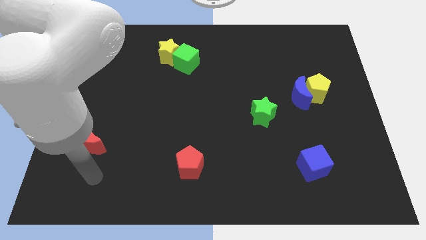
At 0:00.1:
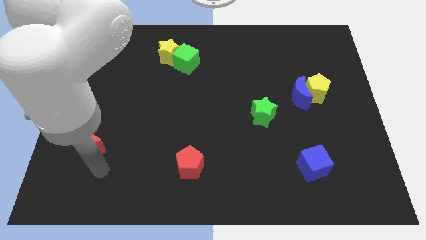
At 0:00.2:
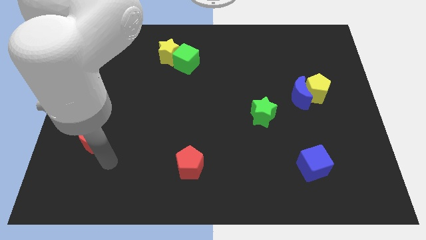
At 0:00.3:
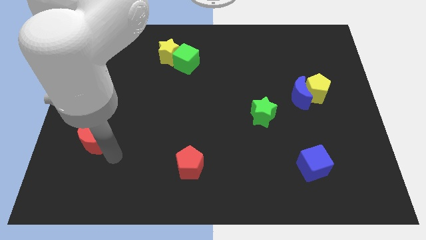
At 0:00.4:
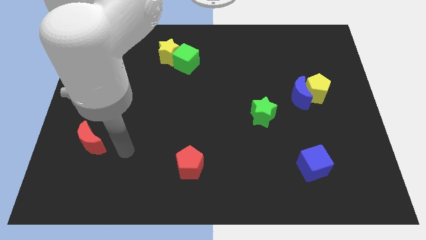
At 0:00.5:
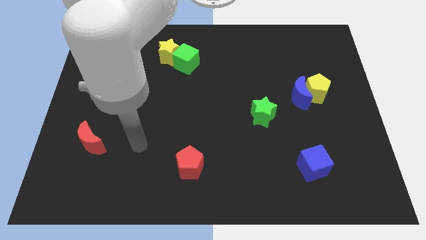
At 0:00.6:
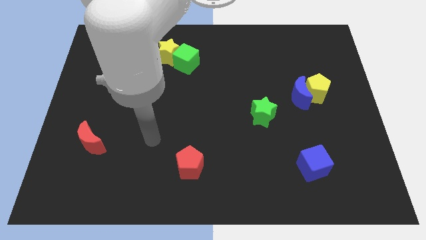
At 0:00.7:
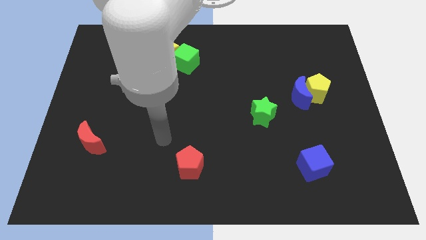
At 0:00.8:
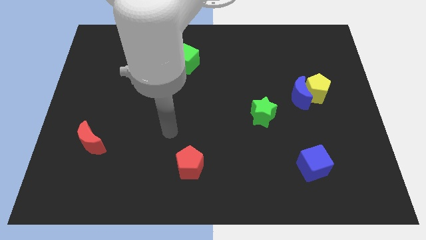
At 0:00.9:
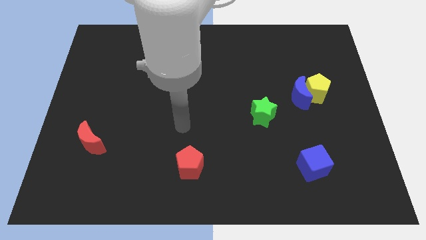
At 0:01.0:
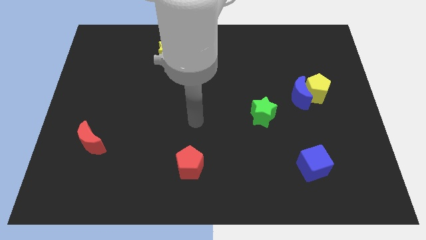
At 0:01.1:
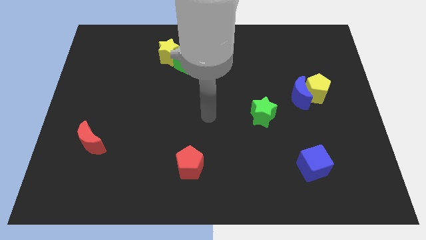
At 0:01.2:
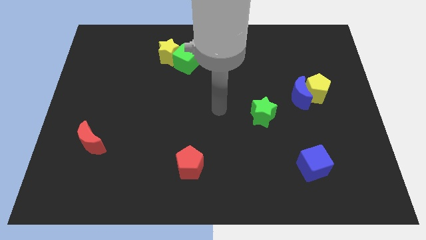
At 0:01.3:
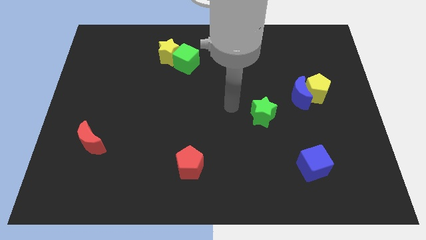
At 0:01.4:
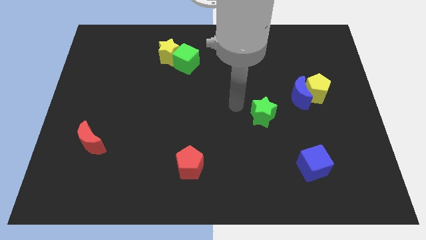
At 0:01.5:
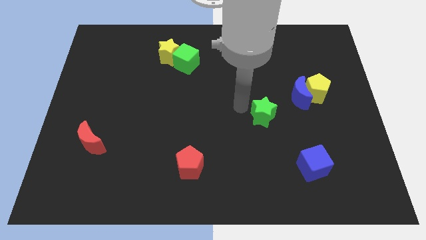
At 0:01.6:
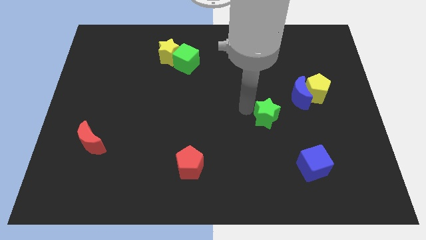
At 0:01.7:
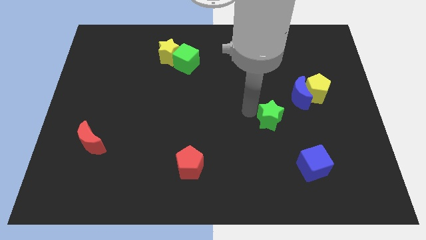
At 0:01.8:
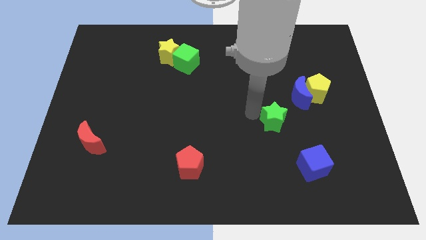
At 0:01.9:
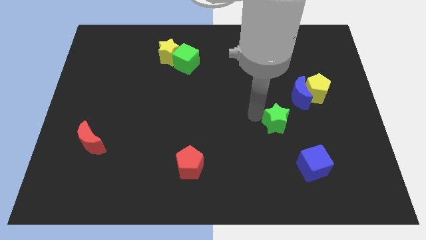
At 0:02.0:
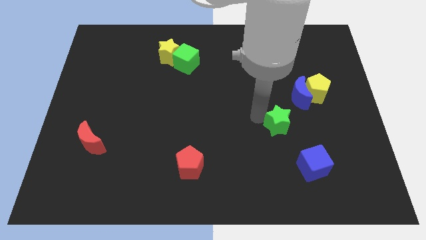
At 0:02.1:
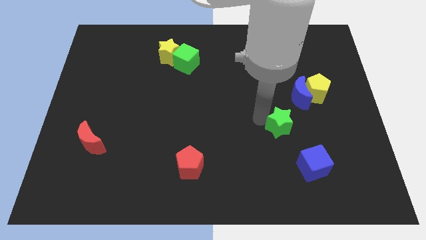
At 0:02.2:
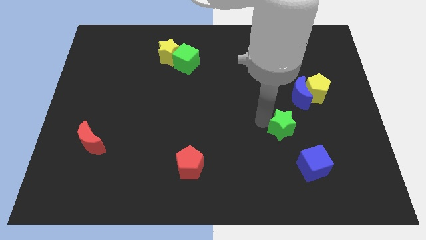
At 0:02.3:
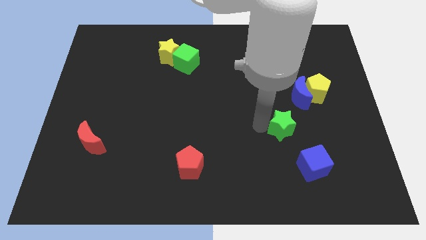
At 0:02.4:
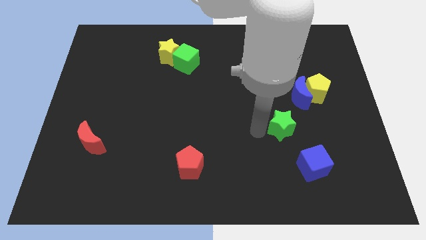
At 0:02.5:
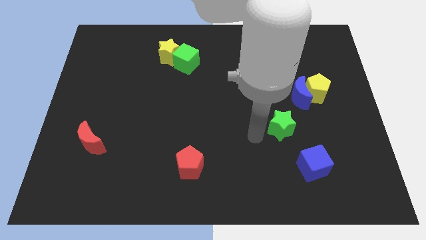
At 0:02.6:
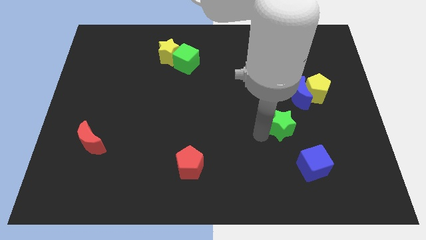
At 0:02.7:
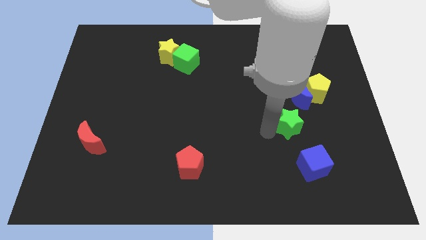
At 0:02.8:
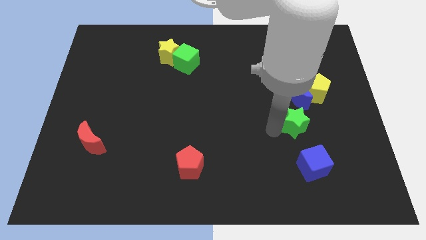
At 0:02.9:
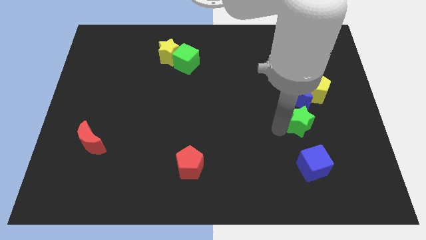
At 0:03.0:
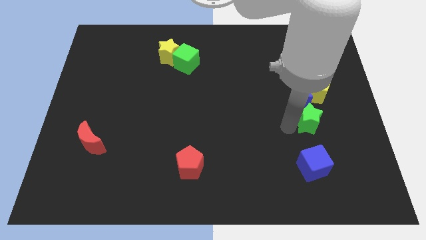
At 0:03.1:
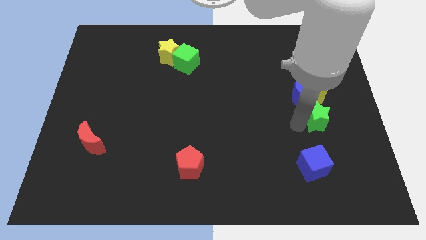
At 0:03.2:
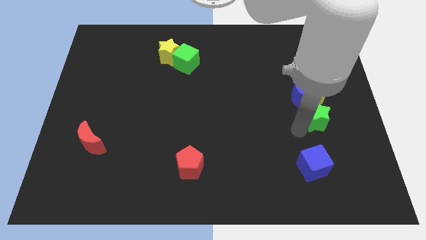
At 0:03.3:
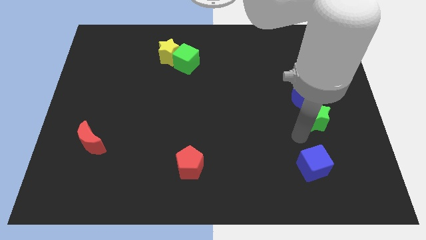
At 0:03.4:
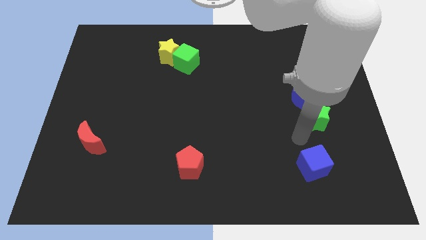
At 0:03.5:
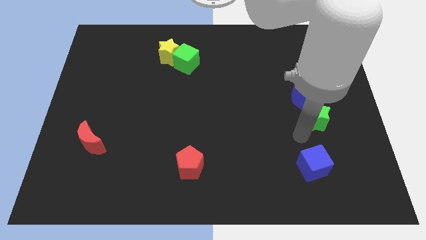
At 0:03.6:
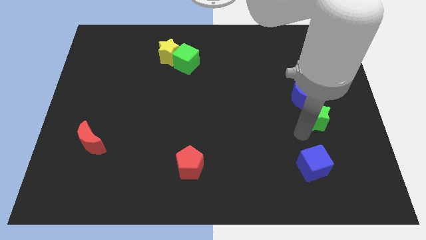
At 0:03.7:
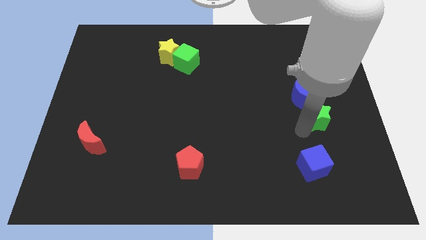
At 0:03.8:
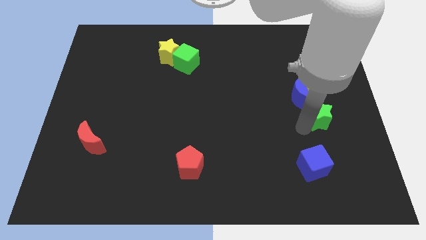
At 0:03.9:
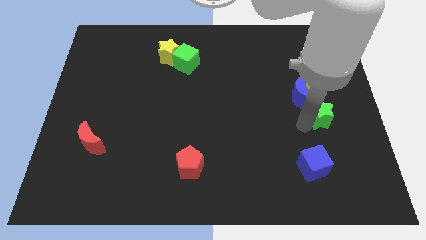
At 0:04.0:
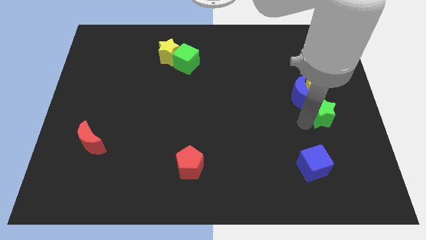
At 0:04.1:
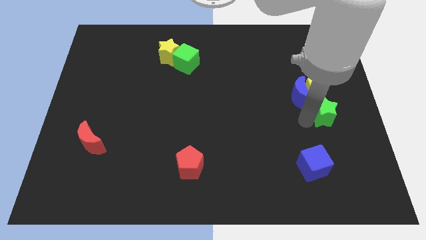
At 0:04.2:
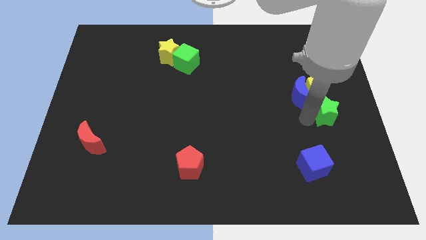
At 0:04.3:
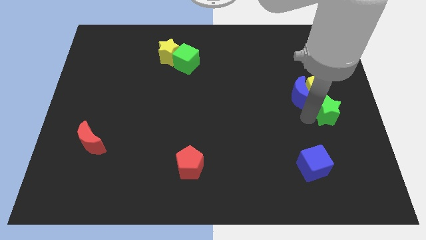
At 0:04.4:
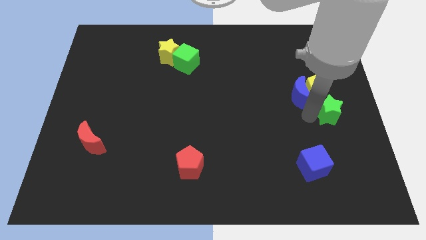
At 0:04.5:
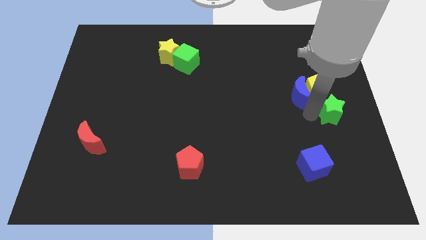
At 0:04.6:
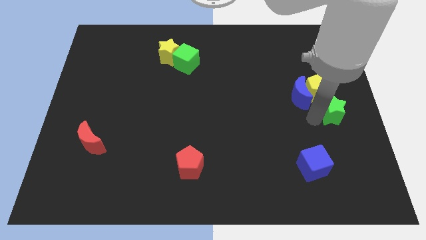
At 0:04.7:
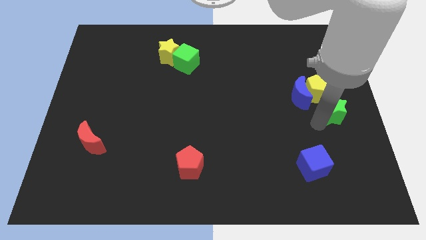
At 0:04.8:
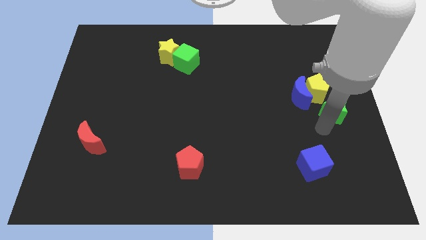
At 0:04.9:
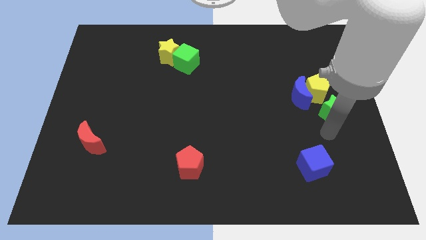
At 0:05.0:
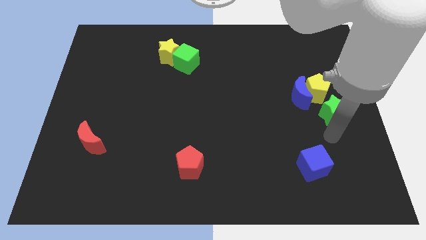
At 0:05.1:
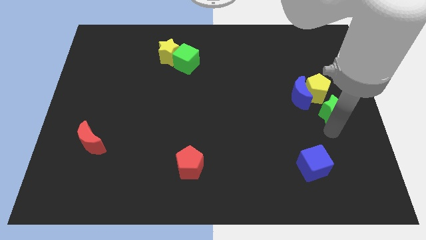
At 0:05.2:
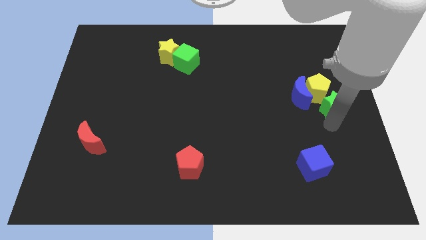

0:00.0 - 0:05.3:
put the green star towards the yellow pentagon

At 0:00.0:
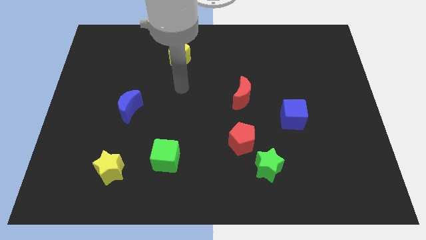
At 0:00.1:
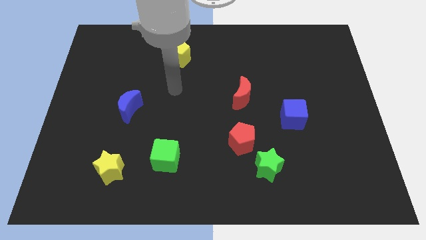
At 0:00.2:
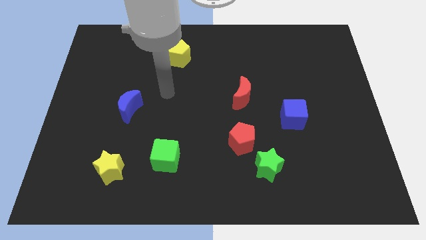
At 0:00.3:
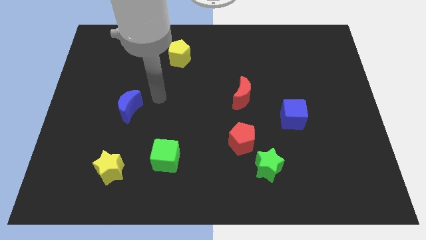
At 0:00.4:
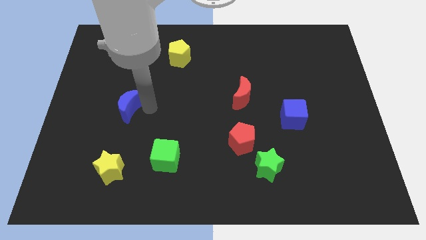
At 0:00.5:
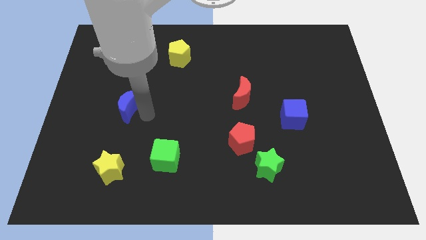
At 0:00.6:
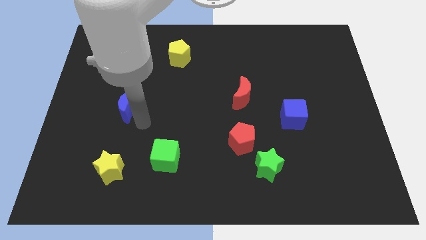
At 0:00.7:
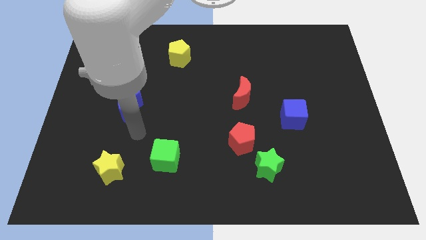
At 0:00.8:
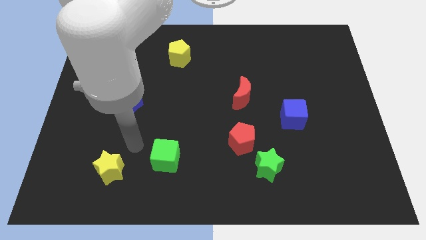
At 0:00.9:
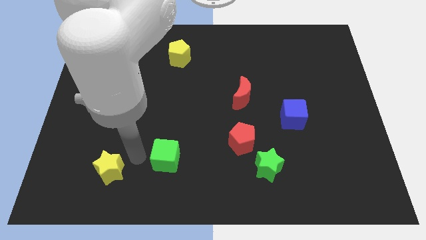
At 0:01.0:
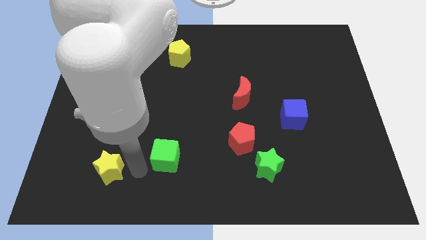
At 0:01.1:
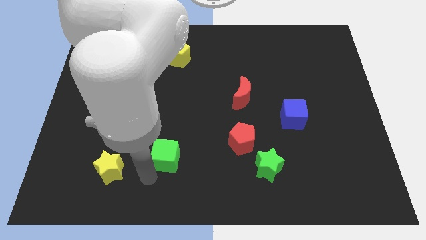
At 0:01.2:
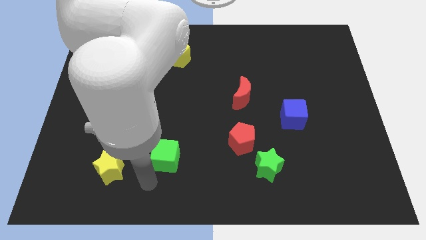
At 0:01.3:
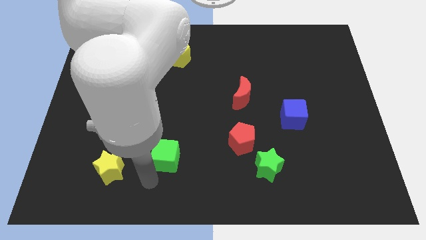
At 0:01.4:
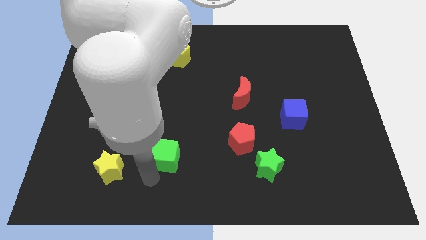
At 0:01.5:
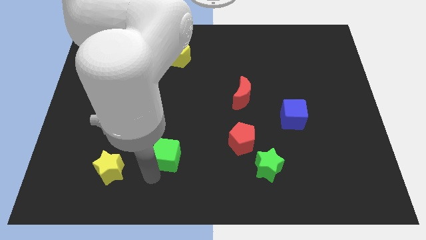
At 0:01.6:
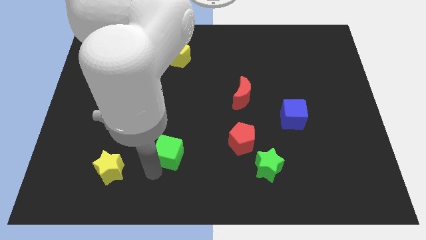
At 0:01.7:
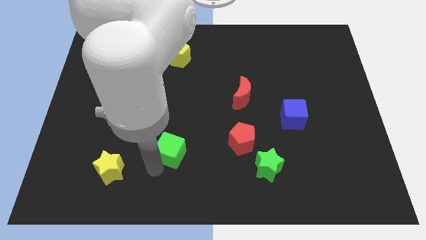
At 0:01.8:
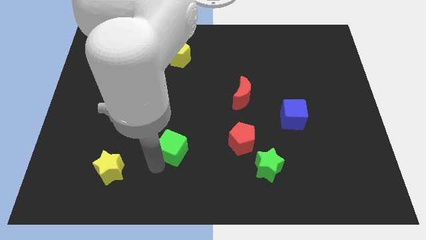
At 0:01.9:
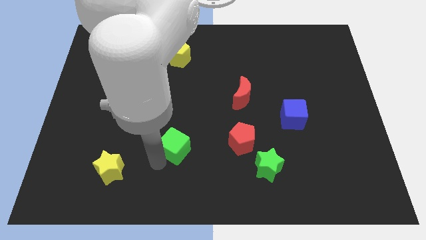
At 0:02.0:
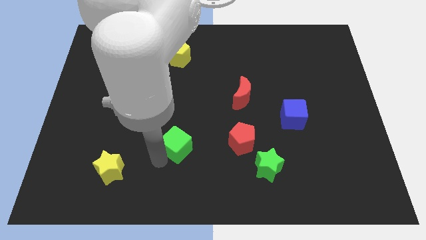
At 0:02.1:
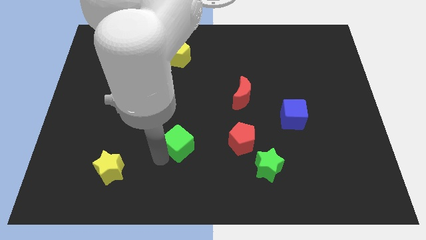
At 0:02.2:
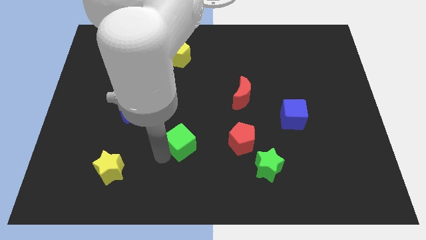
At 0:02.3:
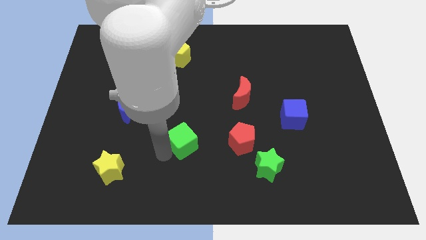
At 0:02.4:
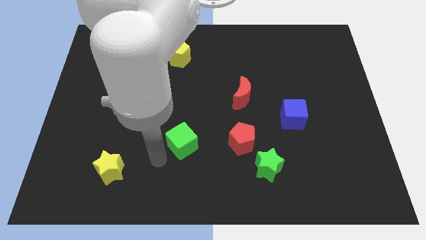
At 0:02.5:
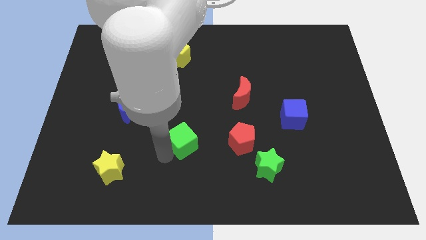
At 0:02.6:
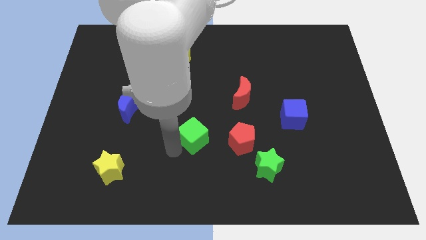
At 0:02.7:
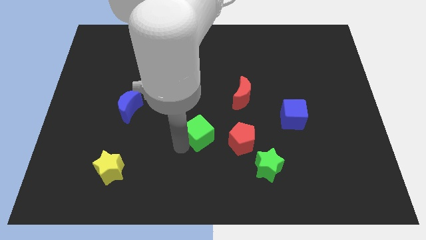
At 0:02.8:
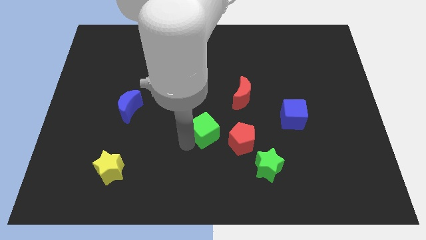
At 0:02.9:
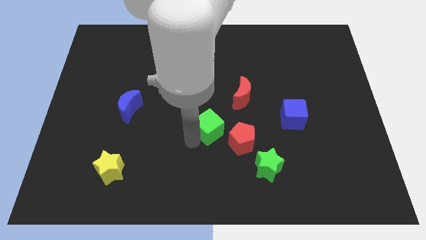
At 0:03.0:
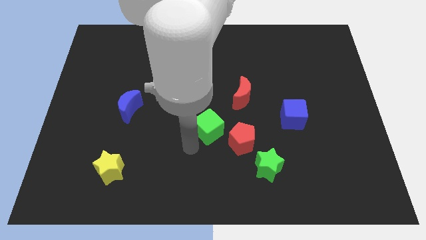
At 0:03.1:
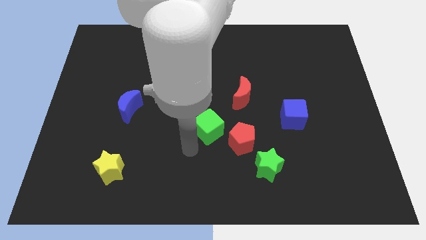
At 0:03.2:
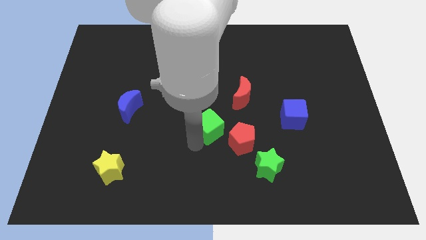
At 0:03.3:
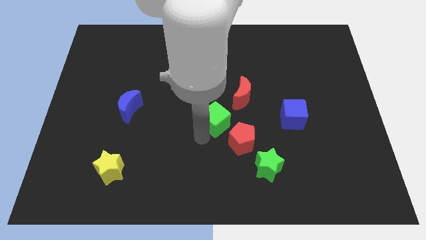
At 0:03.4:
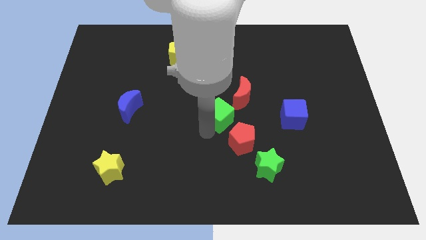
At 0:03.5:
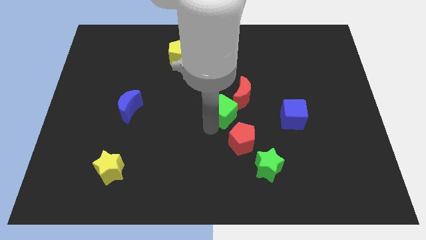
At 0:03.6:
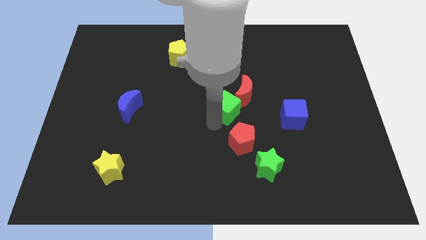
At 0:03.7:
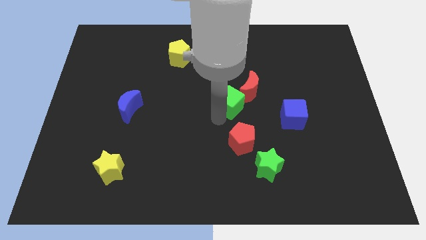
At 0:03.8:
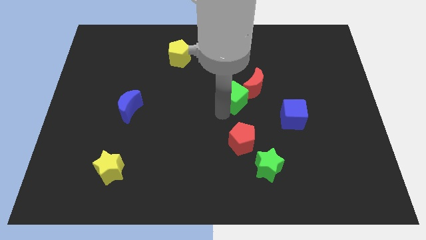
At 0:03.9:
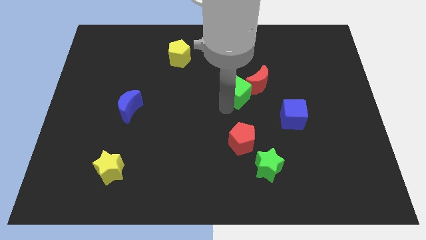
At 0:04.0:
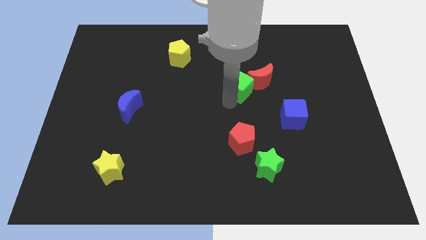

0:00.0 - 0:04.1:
move the green cube towards the red moon
